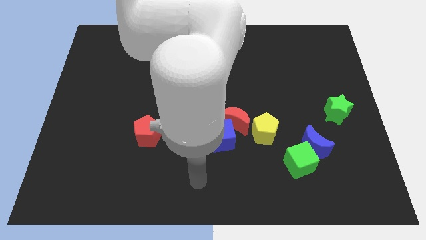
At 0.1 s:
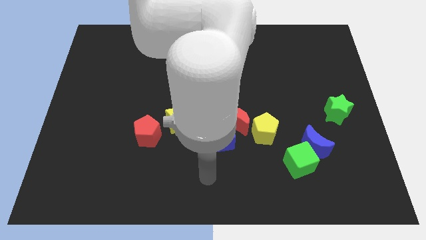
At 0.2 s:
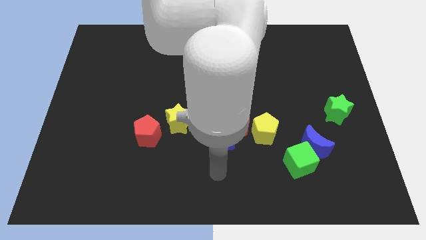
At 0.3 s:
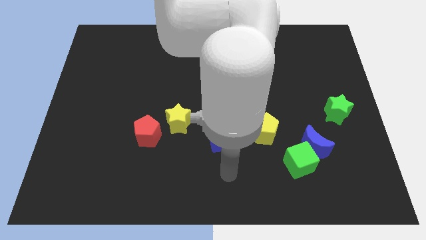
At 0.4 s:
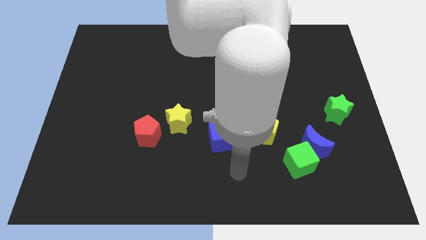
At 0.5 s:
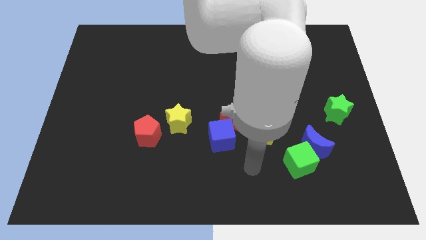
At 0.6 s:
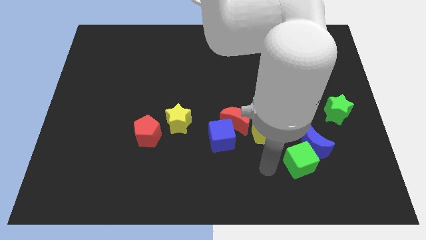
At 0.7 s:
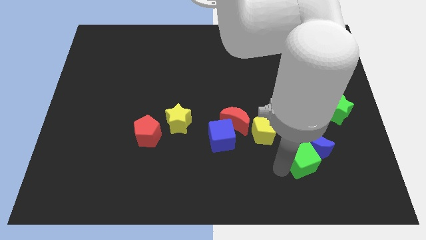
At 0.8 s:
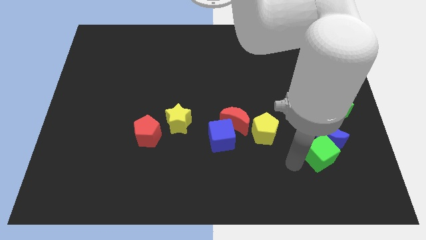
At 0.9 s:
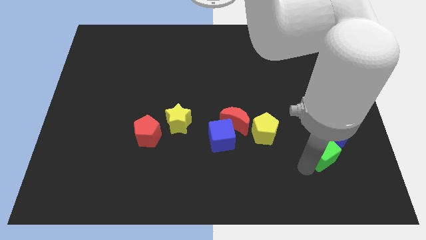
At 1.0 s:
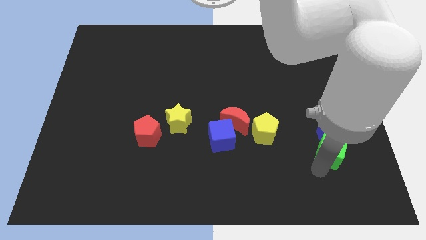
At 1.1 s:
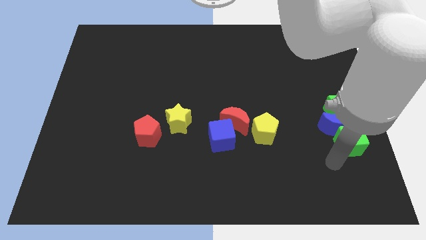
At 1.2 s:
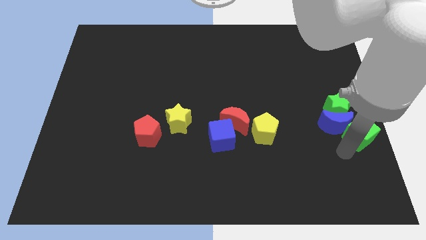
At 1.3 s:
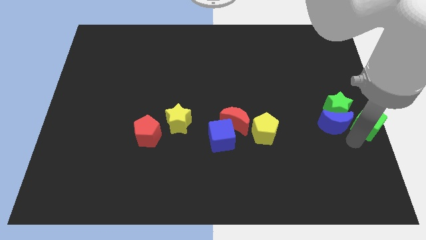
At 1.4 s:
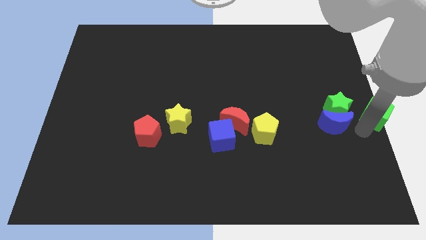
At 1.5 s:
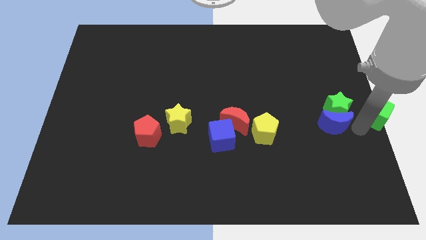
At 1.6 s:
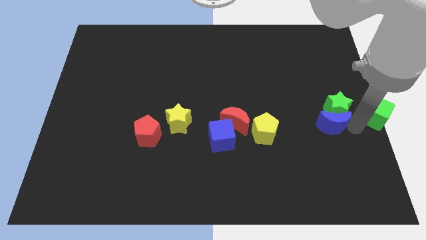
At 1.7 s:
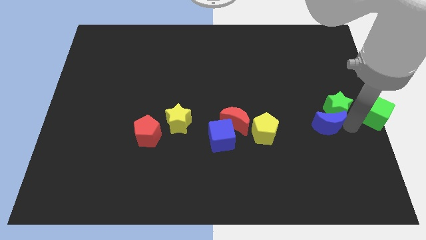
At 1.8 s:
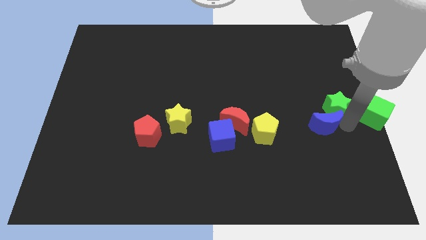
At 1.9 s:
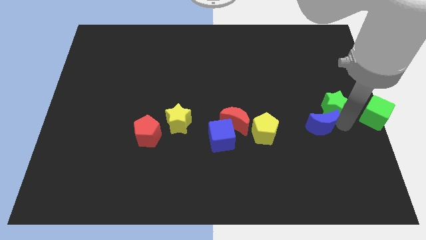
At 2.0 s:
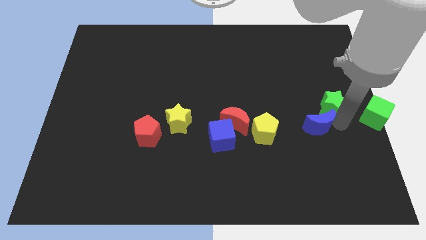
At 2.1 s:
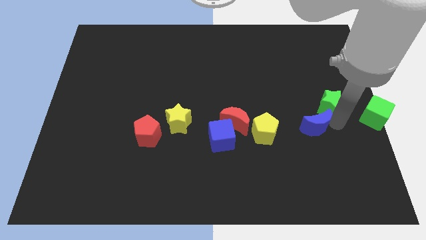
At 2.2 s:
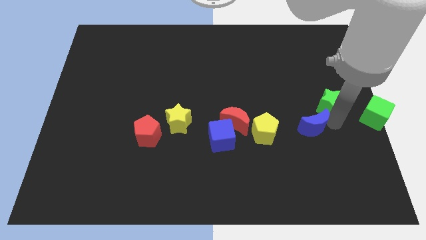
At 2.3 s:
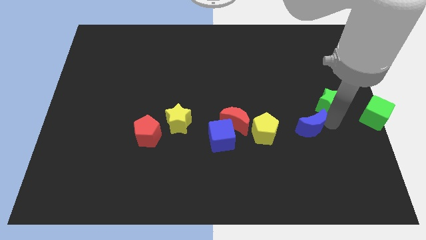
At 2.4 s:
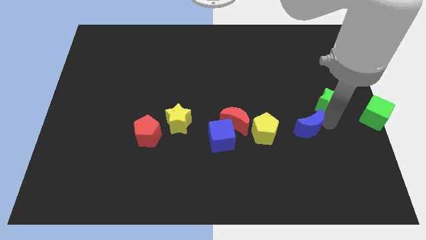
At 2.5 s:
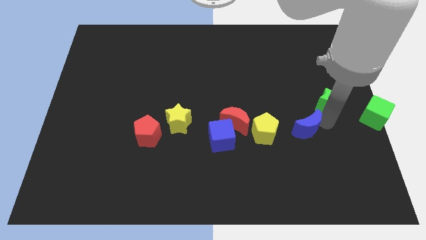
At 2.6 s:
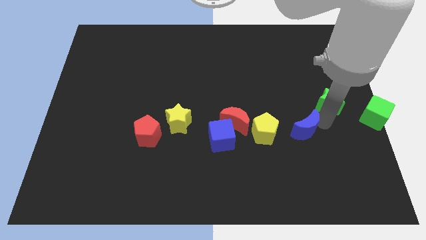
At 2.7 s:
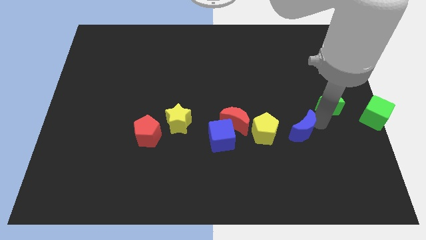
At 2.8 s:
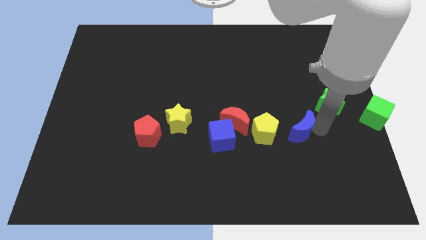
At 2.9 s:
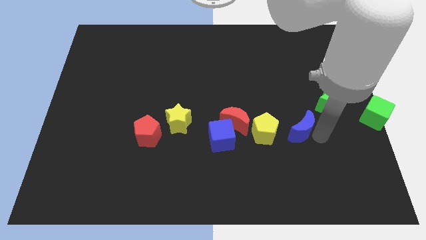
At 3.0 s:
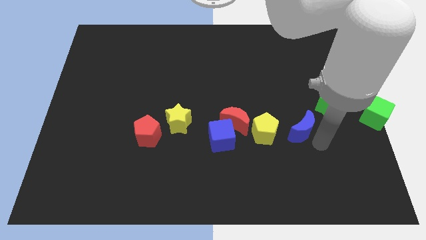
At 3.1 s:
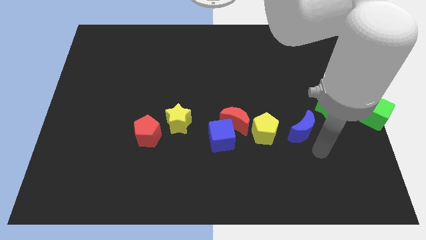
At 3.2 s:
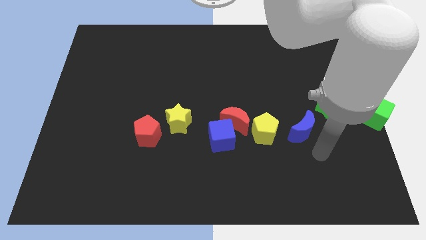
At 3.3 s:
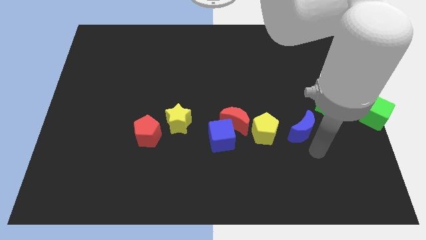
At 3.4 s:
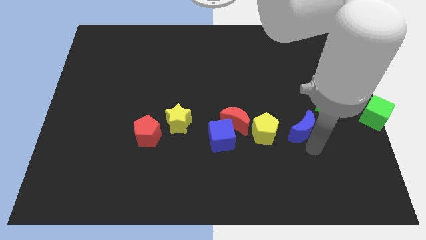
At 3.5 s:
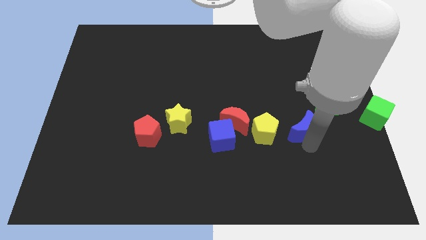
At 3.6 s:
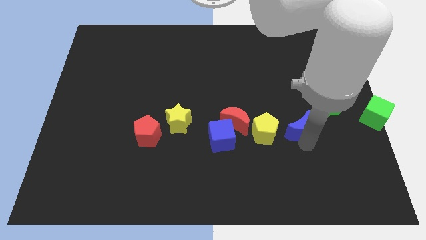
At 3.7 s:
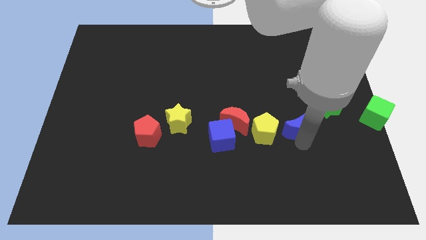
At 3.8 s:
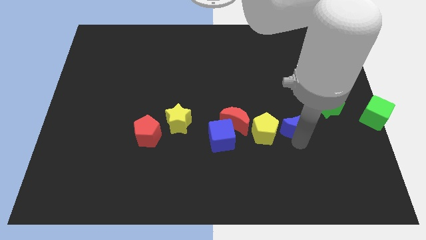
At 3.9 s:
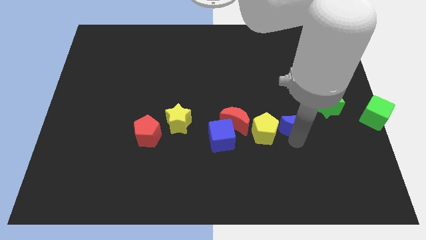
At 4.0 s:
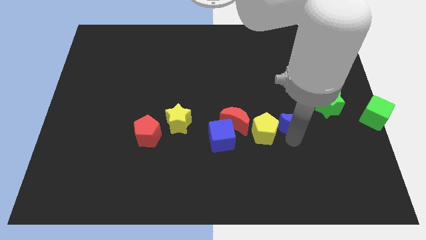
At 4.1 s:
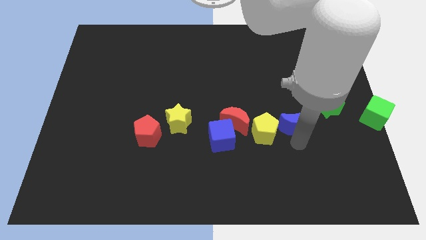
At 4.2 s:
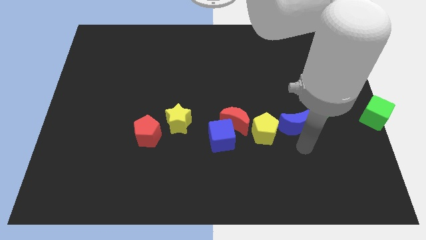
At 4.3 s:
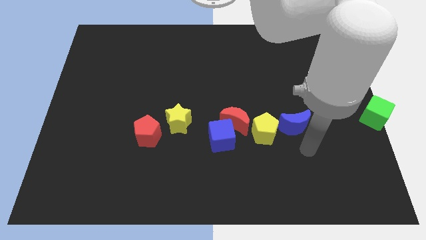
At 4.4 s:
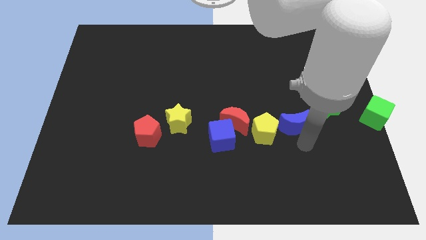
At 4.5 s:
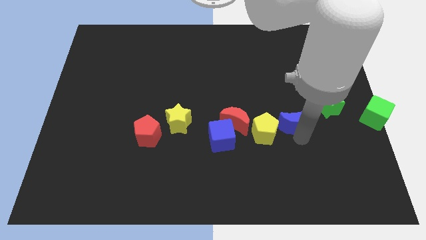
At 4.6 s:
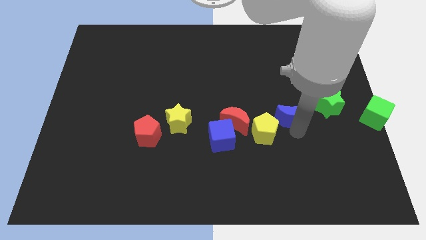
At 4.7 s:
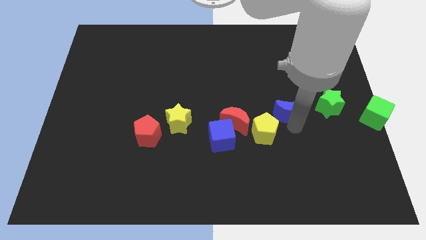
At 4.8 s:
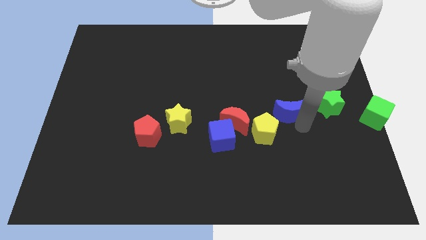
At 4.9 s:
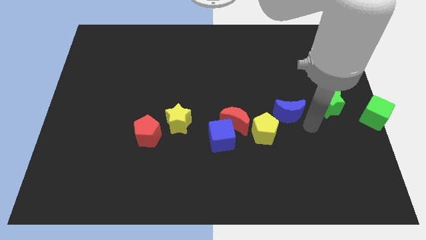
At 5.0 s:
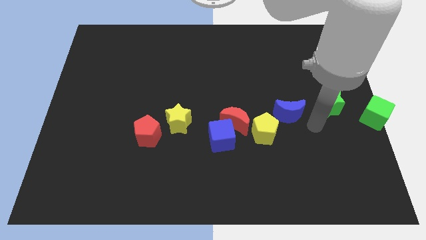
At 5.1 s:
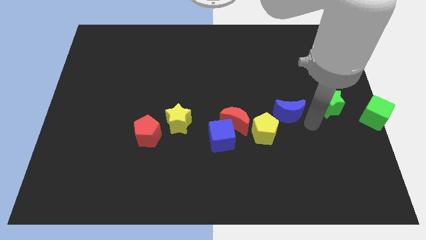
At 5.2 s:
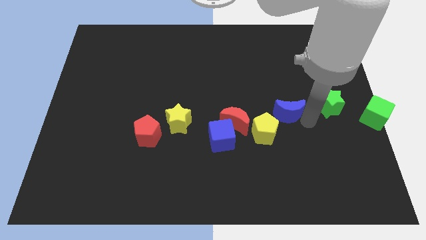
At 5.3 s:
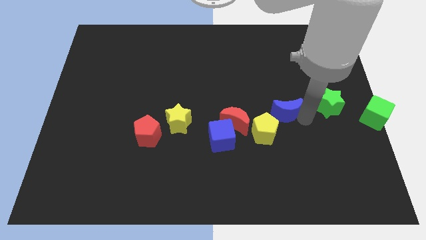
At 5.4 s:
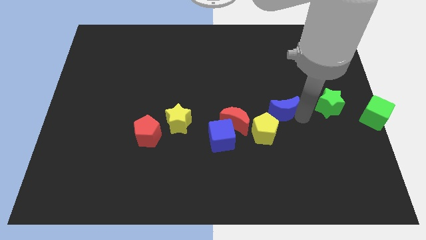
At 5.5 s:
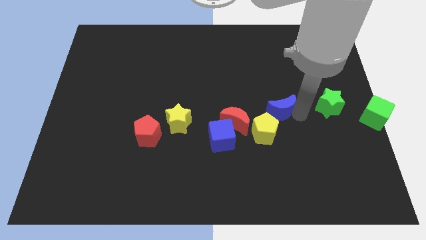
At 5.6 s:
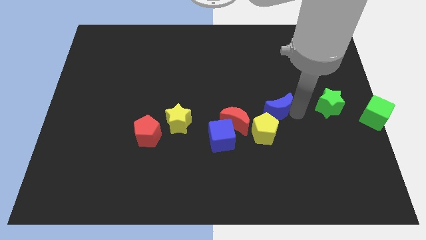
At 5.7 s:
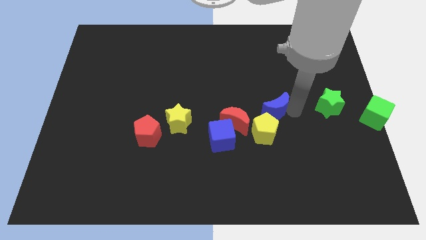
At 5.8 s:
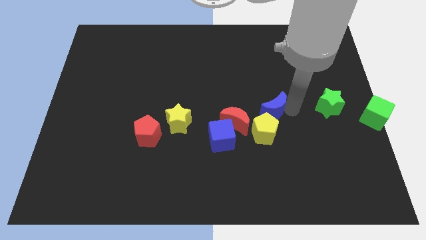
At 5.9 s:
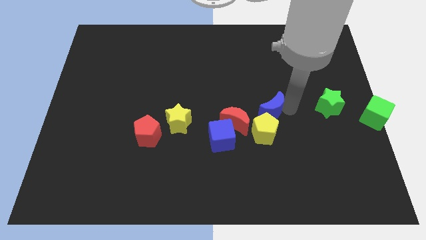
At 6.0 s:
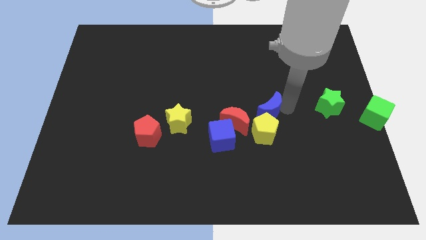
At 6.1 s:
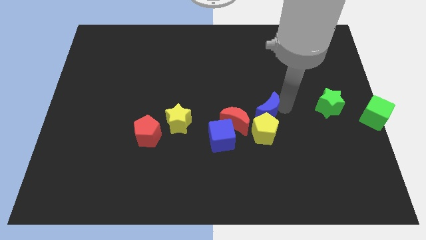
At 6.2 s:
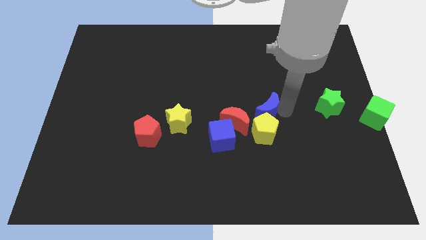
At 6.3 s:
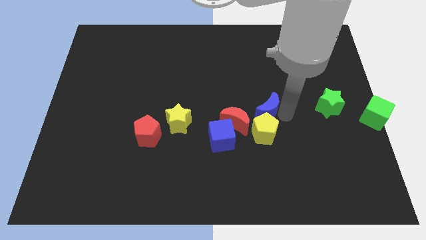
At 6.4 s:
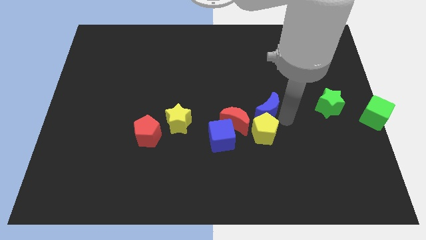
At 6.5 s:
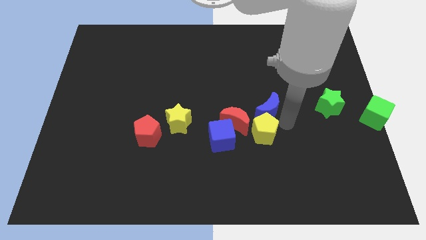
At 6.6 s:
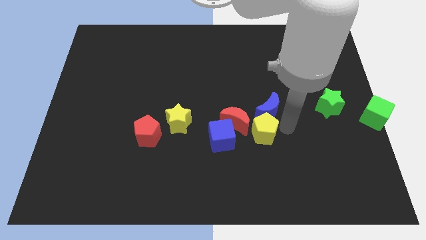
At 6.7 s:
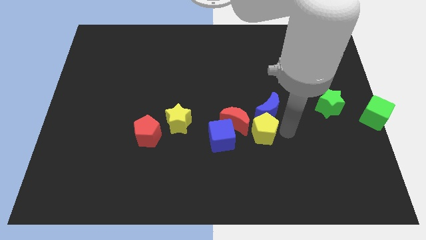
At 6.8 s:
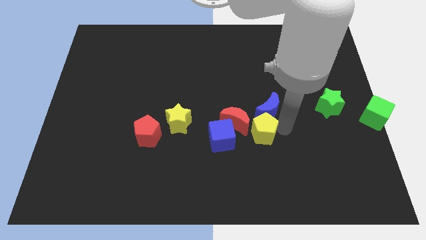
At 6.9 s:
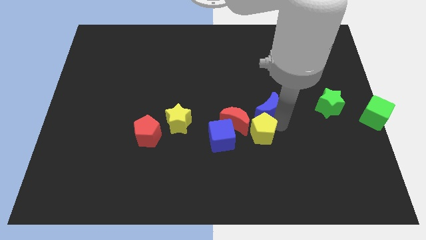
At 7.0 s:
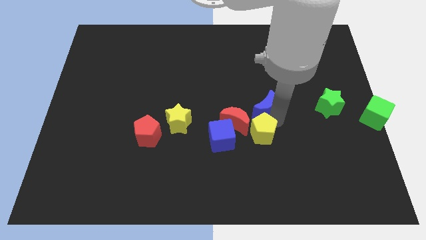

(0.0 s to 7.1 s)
put the blue moon to the center
